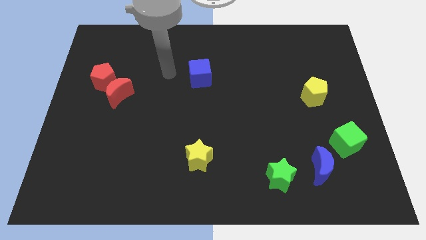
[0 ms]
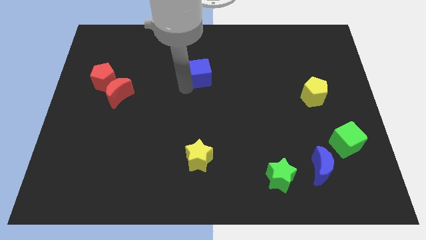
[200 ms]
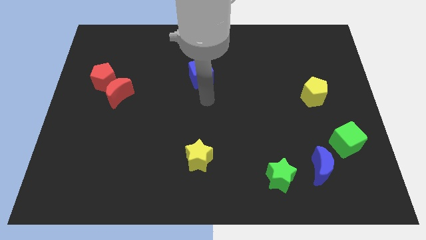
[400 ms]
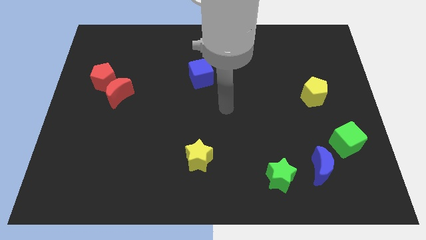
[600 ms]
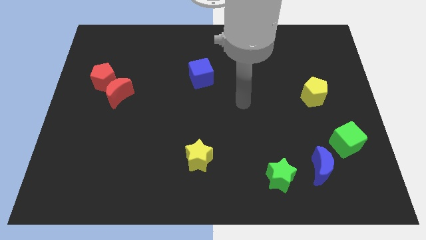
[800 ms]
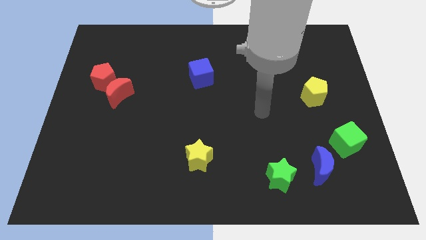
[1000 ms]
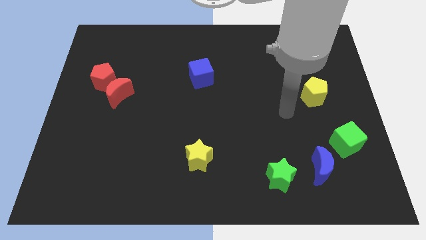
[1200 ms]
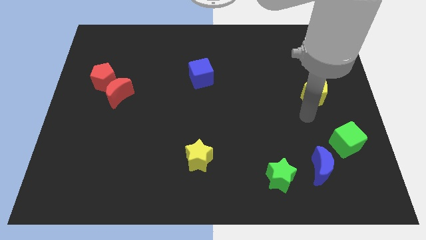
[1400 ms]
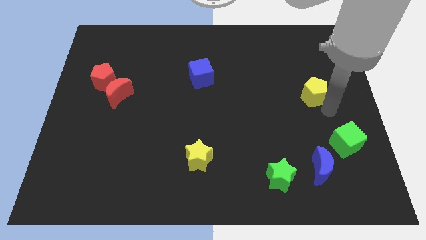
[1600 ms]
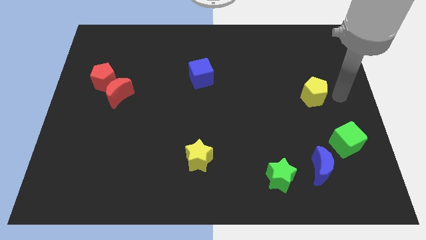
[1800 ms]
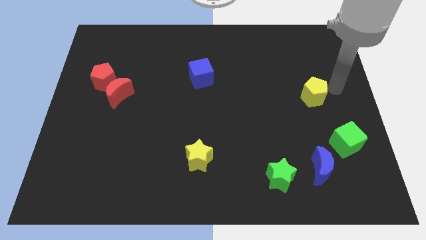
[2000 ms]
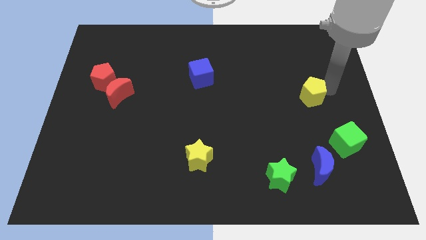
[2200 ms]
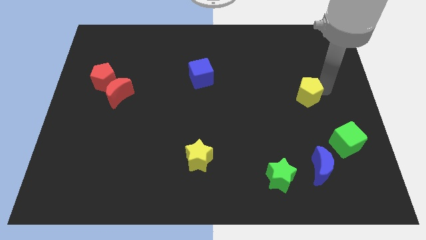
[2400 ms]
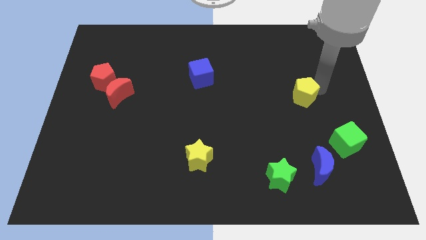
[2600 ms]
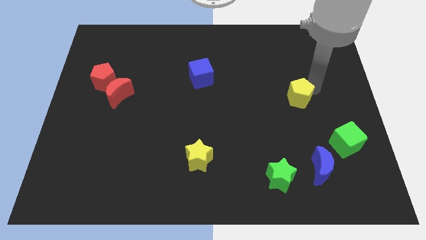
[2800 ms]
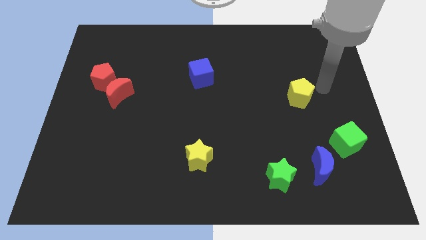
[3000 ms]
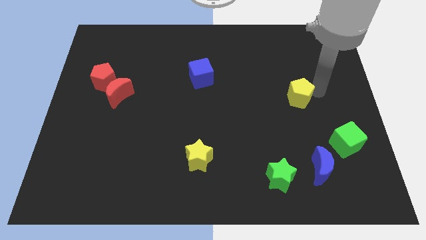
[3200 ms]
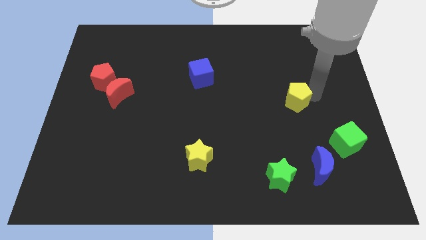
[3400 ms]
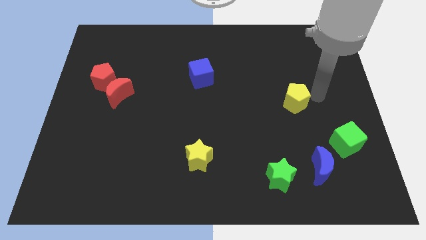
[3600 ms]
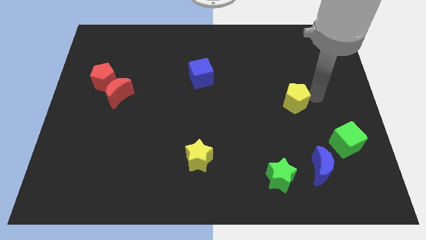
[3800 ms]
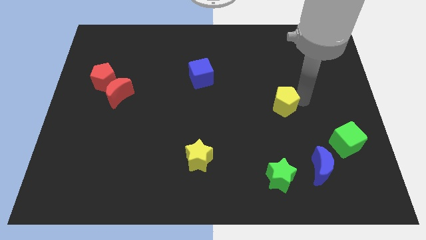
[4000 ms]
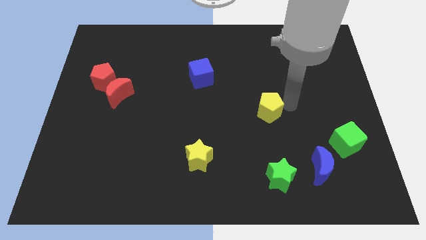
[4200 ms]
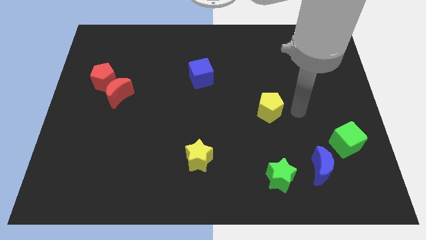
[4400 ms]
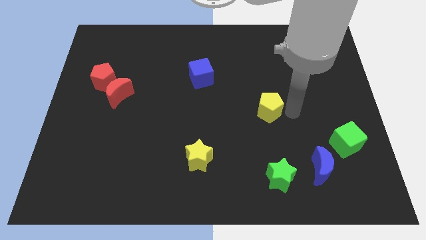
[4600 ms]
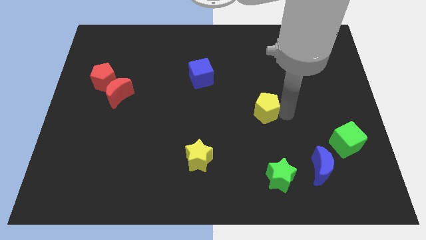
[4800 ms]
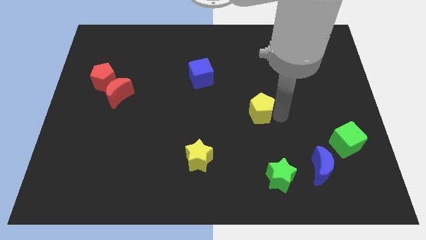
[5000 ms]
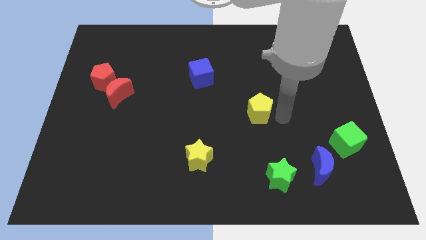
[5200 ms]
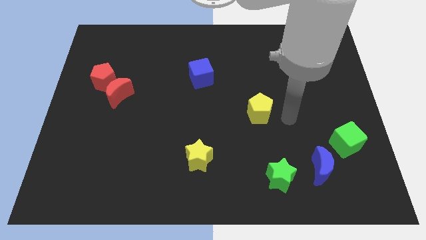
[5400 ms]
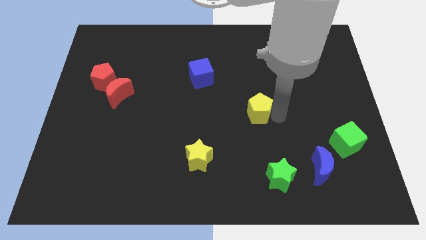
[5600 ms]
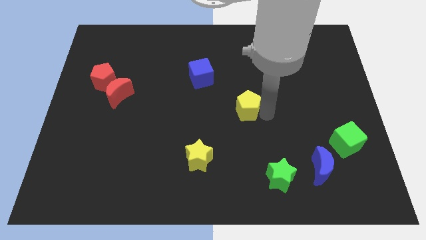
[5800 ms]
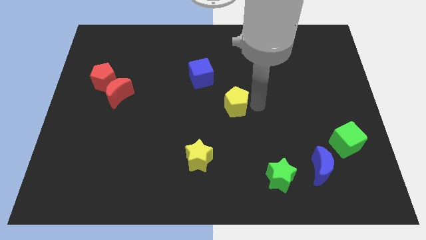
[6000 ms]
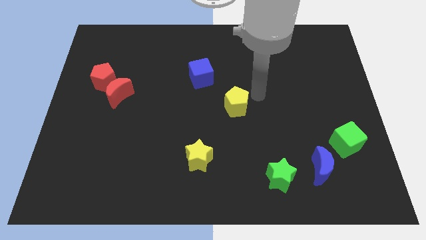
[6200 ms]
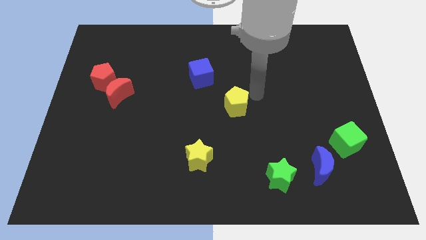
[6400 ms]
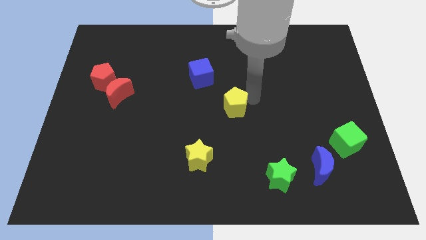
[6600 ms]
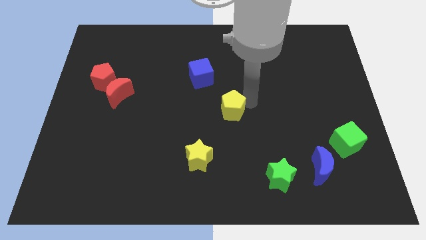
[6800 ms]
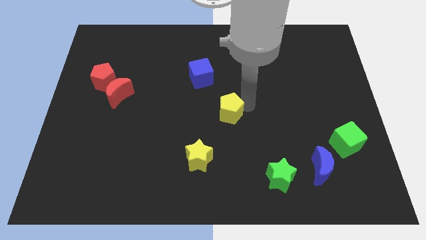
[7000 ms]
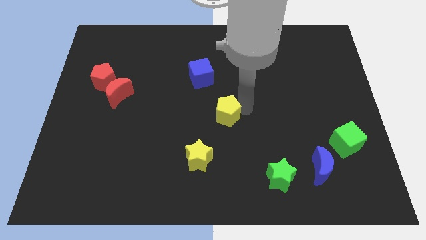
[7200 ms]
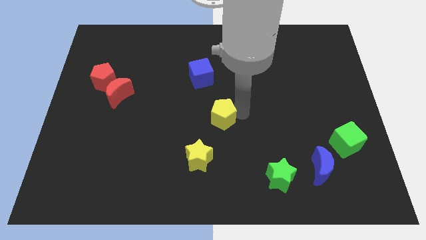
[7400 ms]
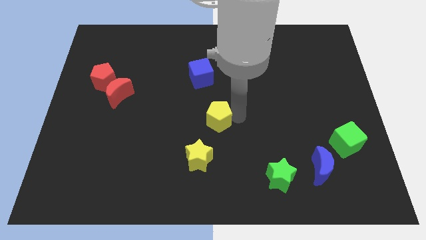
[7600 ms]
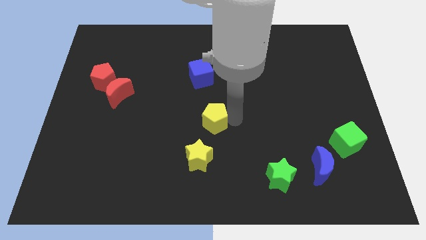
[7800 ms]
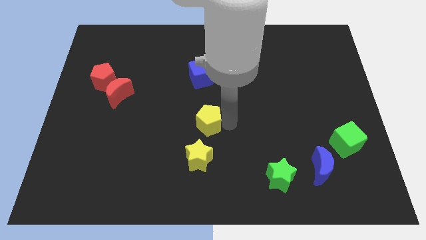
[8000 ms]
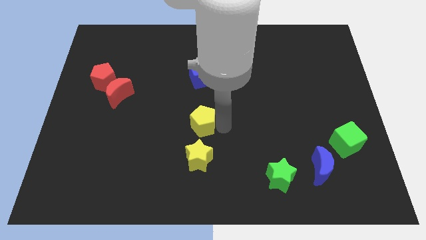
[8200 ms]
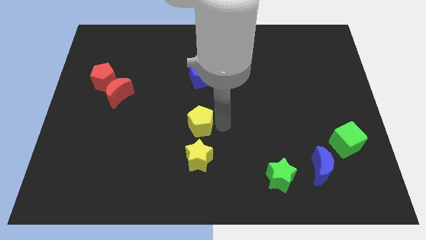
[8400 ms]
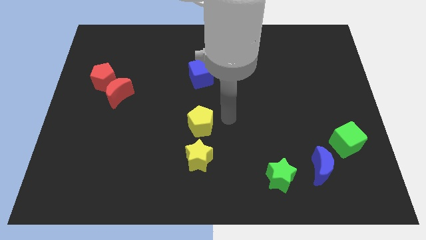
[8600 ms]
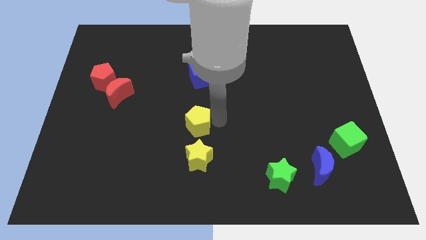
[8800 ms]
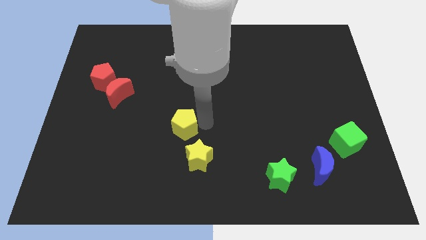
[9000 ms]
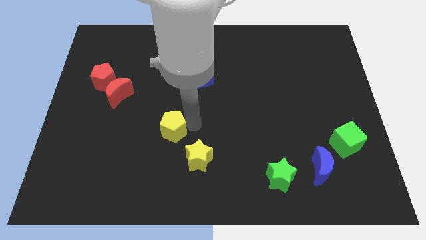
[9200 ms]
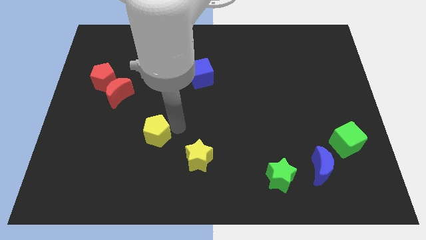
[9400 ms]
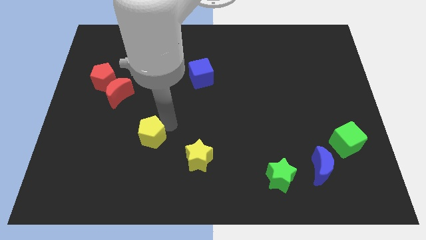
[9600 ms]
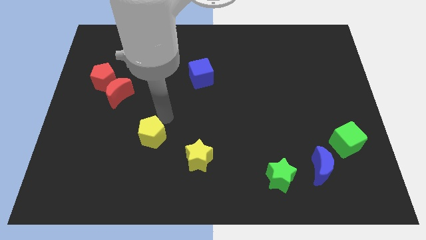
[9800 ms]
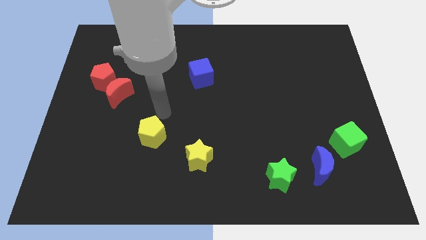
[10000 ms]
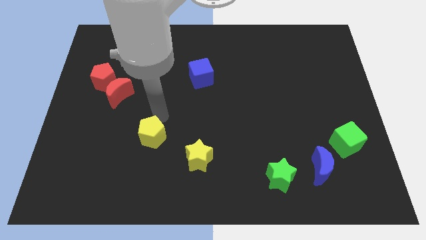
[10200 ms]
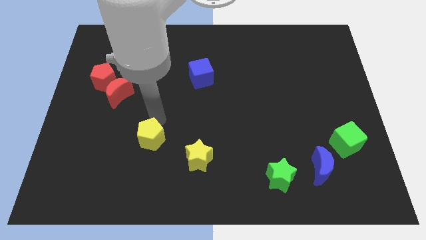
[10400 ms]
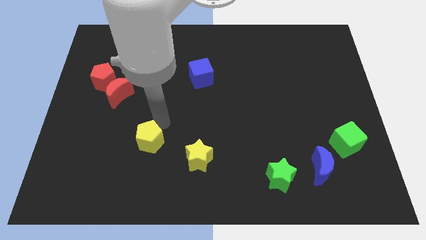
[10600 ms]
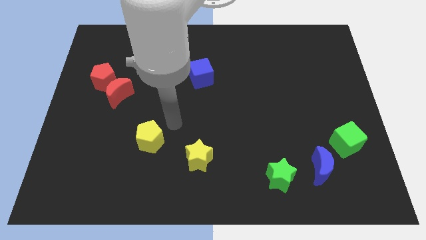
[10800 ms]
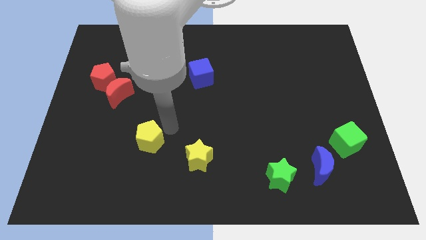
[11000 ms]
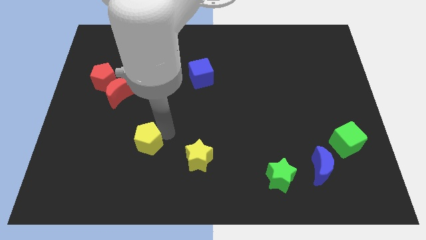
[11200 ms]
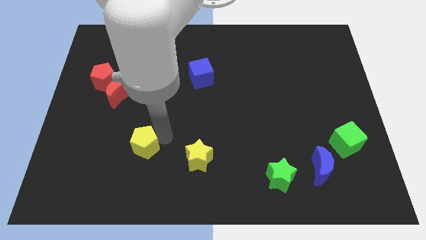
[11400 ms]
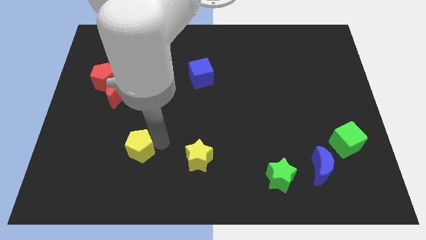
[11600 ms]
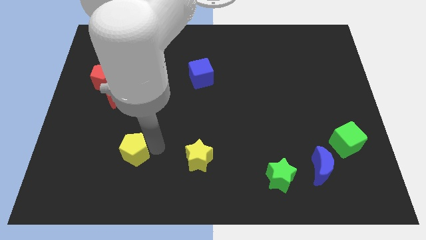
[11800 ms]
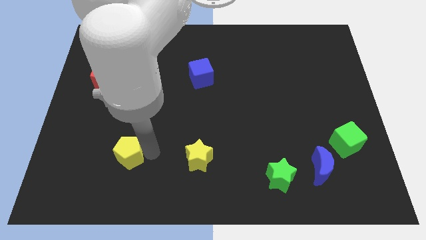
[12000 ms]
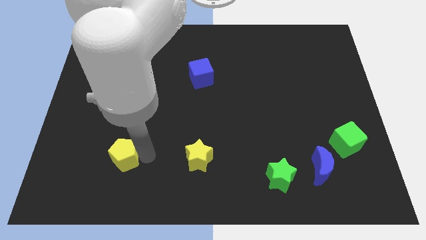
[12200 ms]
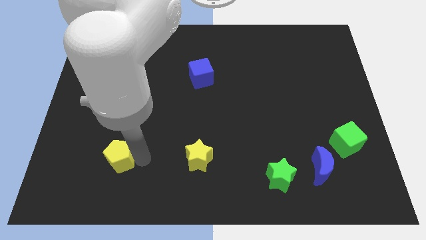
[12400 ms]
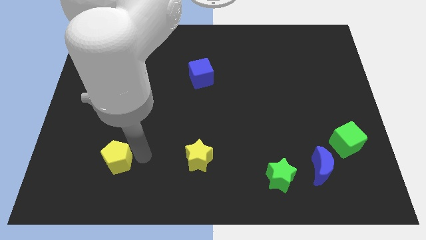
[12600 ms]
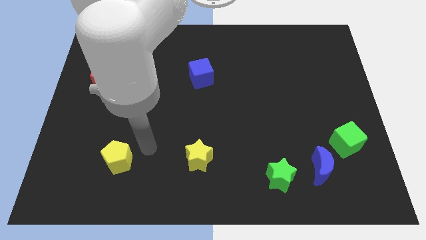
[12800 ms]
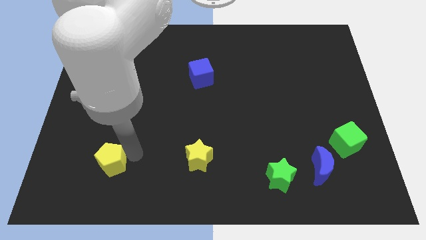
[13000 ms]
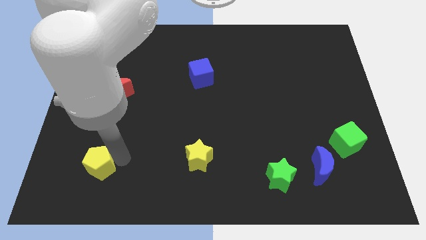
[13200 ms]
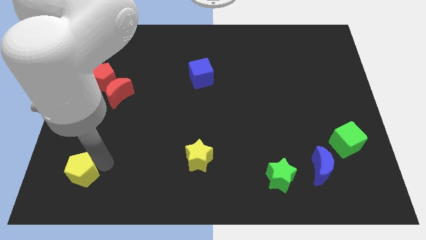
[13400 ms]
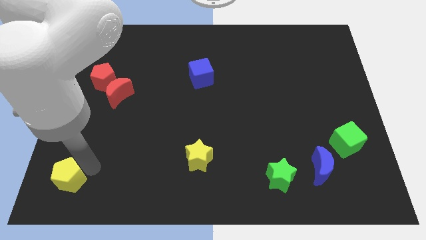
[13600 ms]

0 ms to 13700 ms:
move the yellow pentagon to the bottom left corner

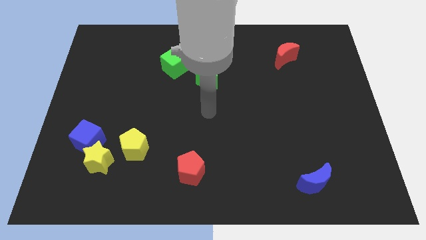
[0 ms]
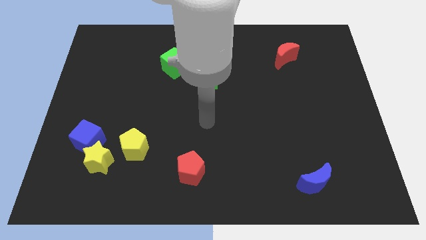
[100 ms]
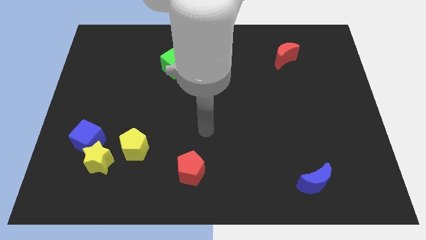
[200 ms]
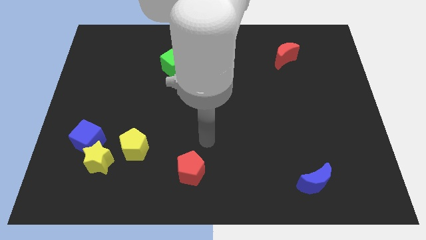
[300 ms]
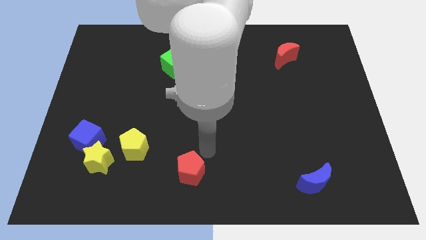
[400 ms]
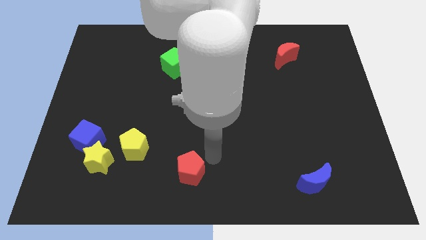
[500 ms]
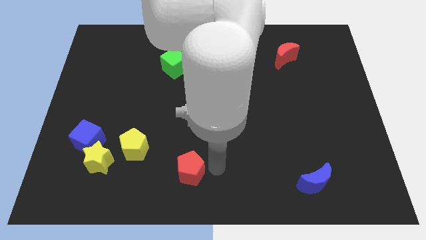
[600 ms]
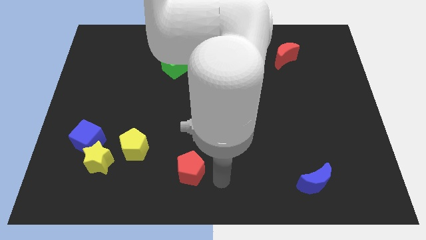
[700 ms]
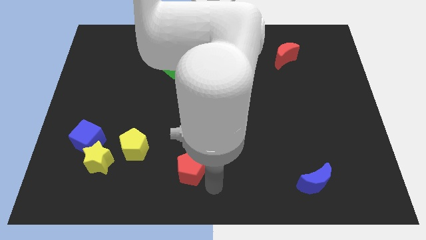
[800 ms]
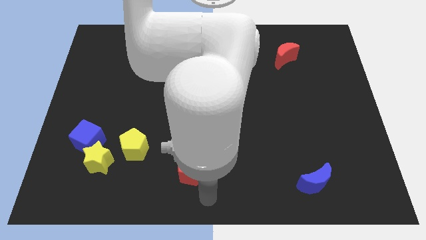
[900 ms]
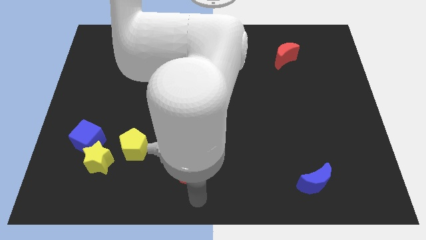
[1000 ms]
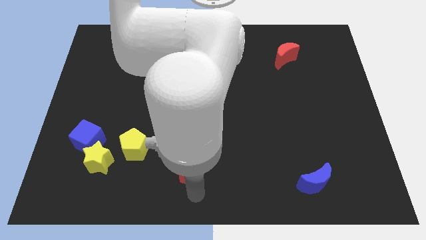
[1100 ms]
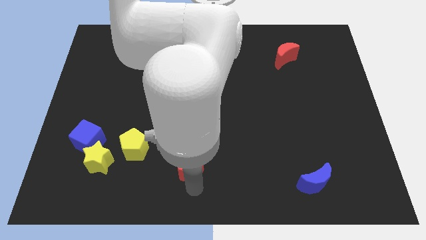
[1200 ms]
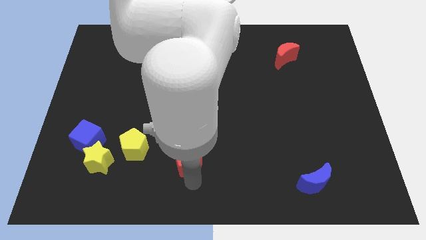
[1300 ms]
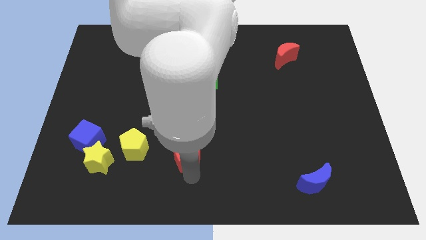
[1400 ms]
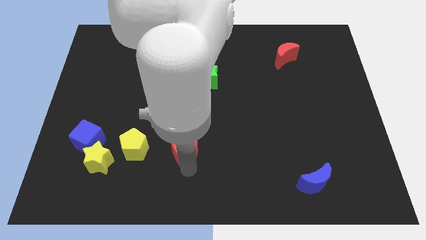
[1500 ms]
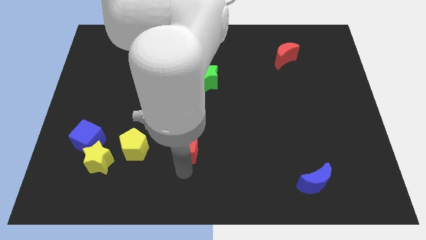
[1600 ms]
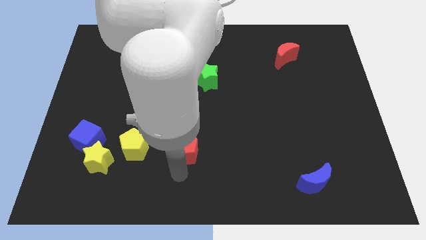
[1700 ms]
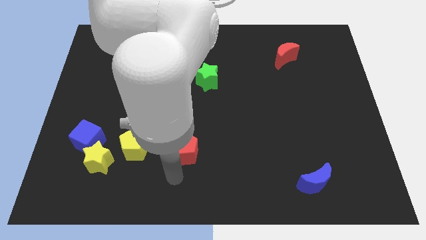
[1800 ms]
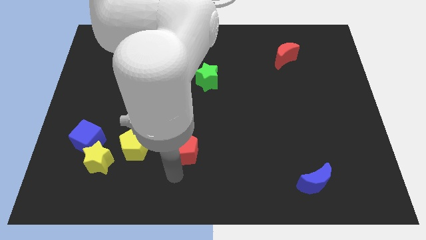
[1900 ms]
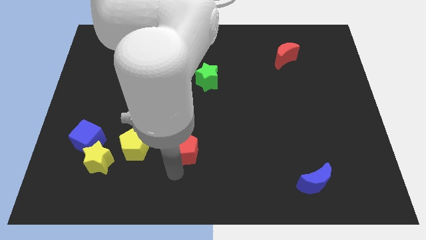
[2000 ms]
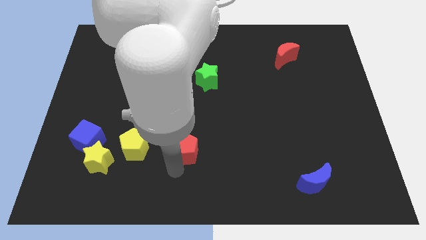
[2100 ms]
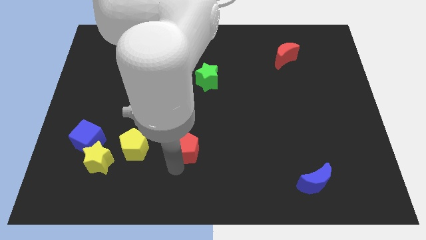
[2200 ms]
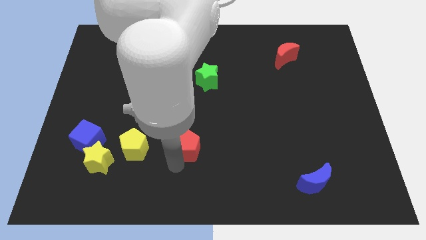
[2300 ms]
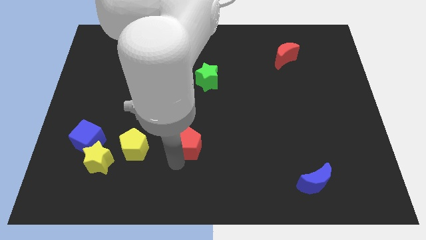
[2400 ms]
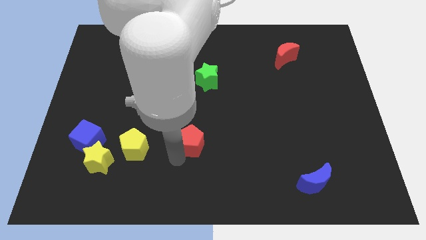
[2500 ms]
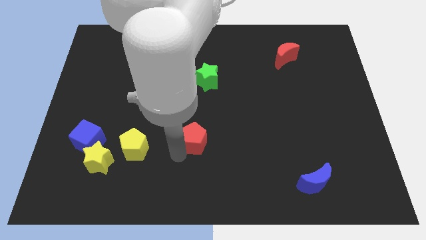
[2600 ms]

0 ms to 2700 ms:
put the red pentagon to the middle of the board
